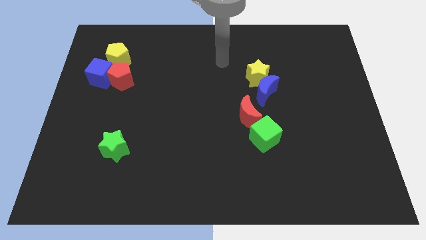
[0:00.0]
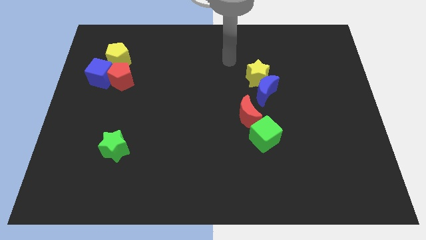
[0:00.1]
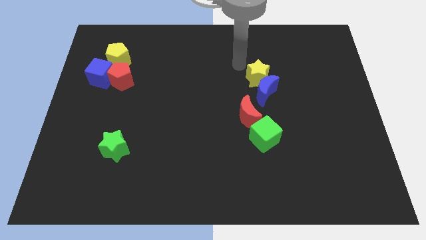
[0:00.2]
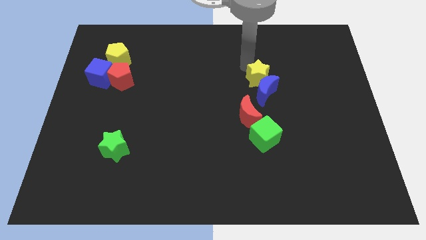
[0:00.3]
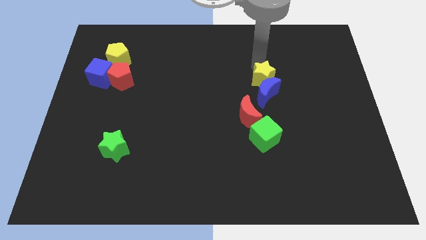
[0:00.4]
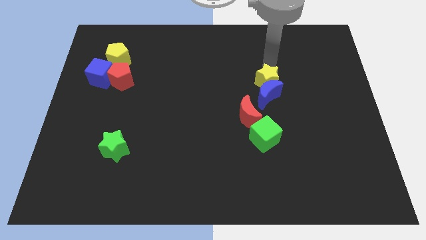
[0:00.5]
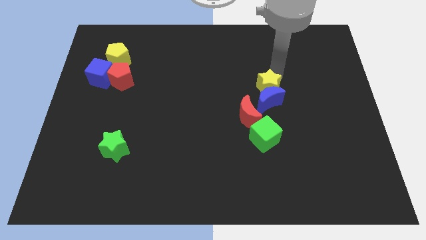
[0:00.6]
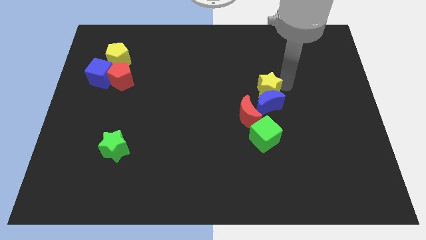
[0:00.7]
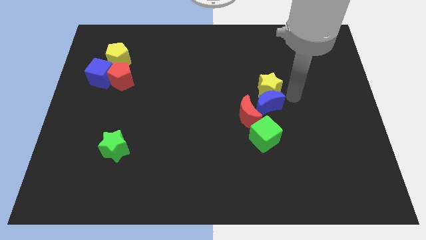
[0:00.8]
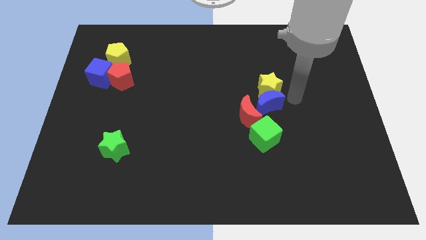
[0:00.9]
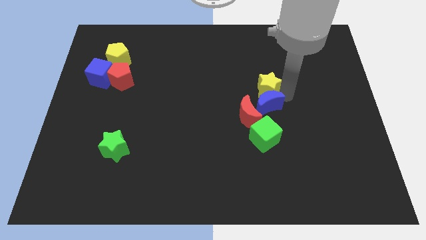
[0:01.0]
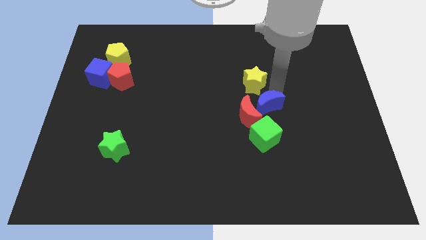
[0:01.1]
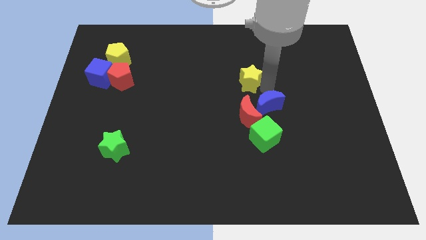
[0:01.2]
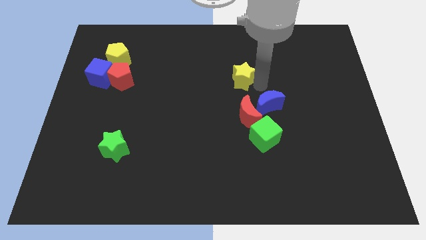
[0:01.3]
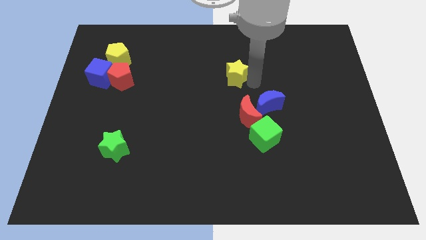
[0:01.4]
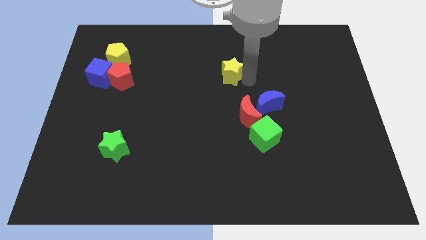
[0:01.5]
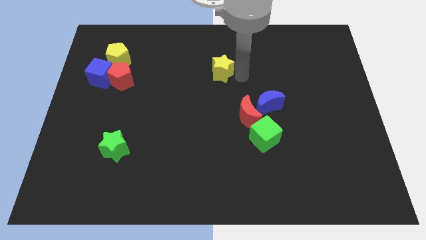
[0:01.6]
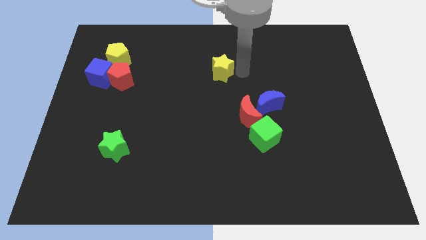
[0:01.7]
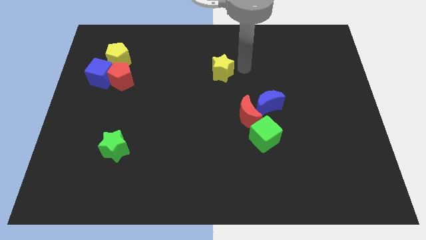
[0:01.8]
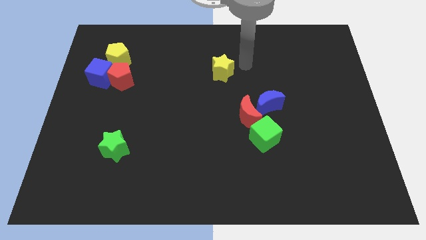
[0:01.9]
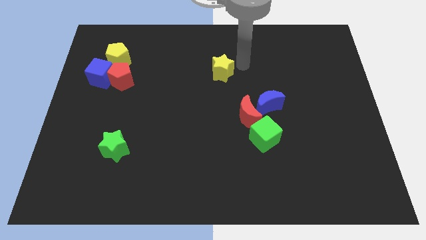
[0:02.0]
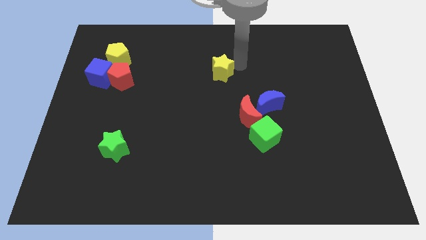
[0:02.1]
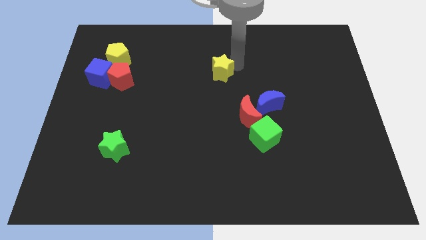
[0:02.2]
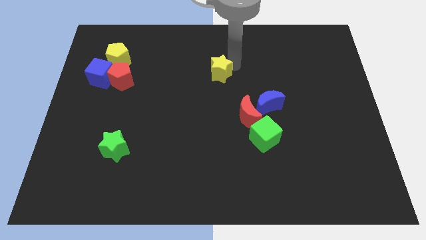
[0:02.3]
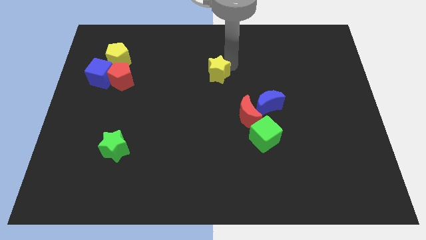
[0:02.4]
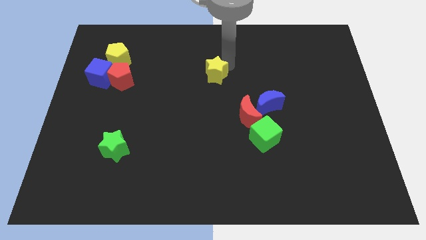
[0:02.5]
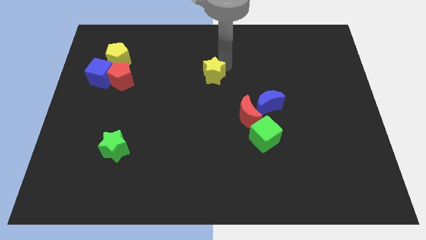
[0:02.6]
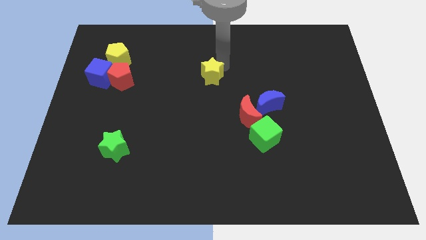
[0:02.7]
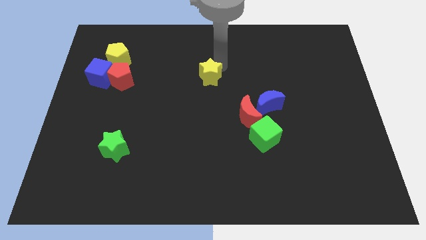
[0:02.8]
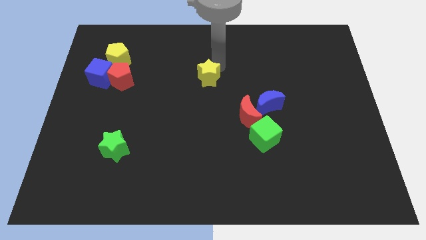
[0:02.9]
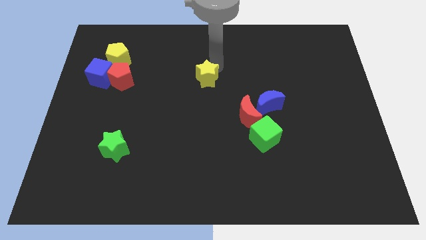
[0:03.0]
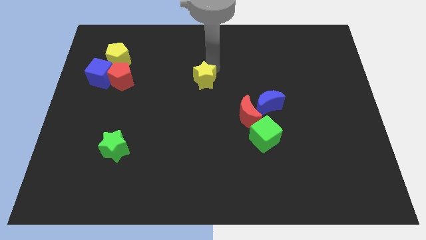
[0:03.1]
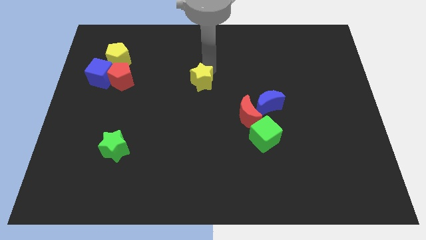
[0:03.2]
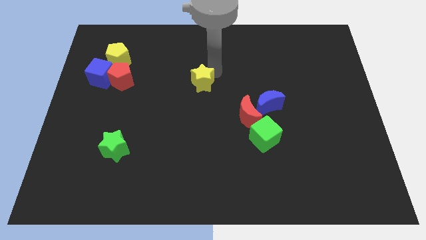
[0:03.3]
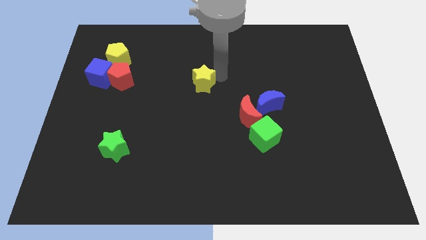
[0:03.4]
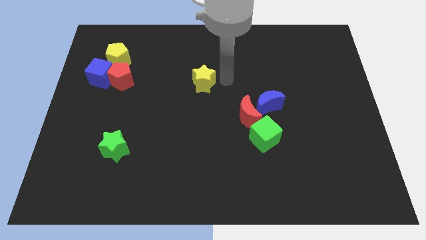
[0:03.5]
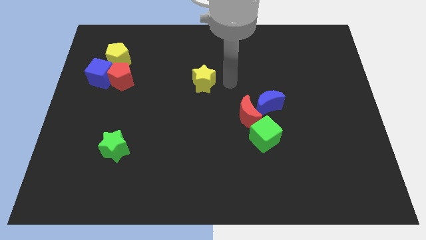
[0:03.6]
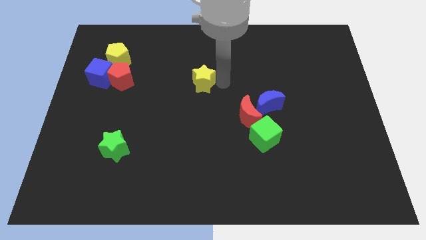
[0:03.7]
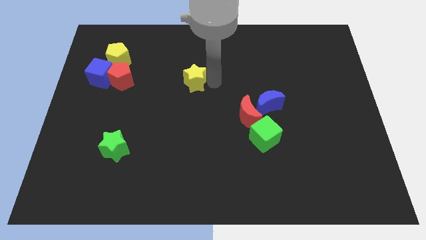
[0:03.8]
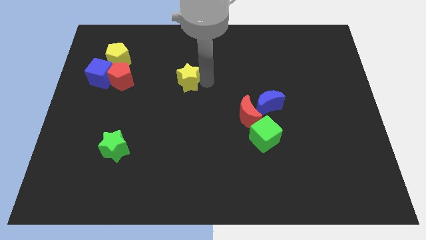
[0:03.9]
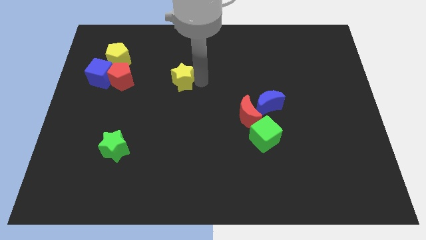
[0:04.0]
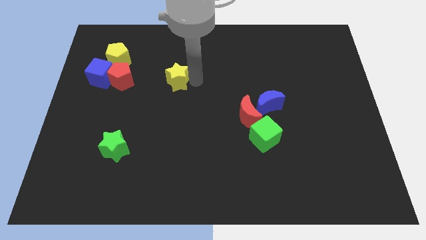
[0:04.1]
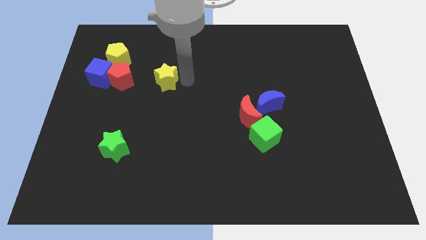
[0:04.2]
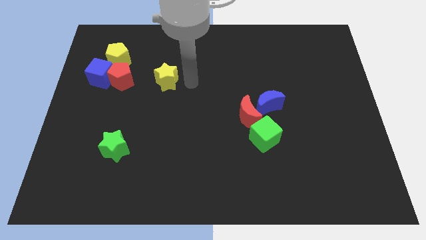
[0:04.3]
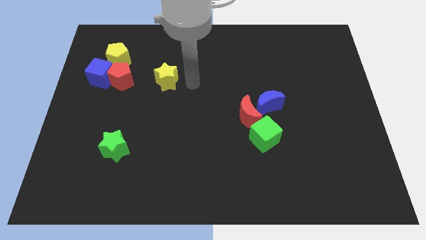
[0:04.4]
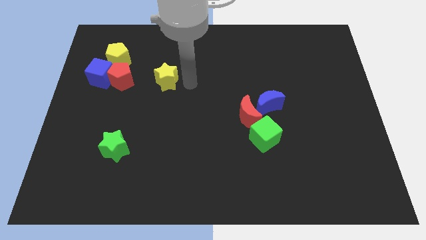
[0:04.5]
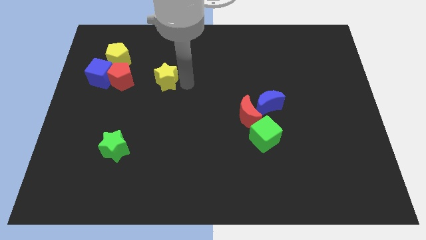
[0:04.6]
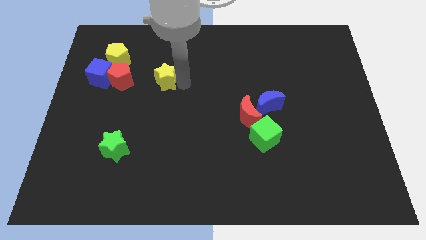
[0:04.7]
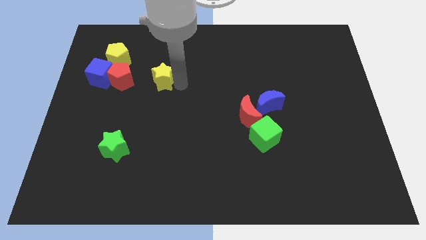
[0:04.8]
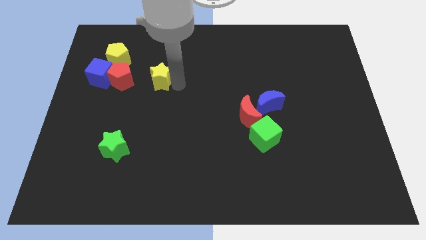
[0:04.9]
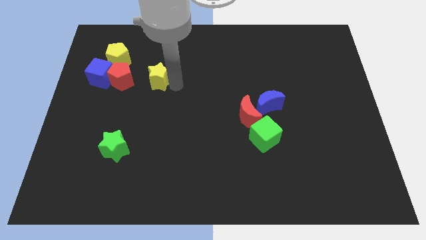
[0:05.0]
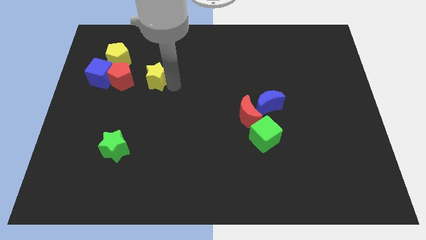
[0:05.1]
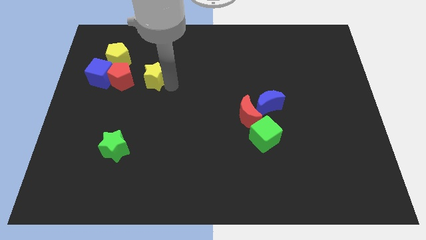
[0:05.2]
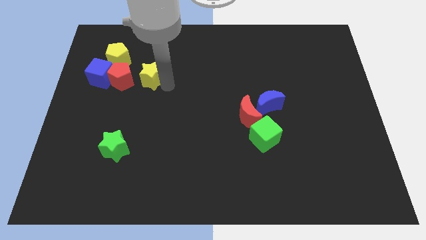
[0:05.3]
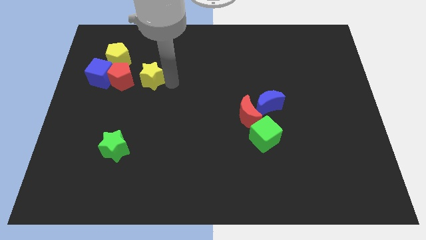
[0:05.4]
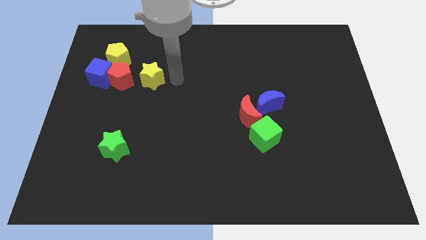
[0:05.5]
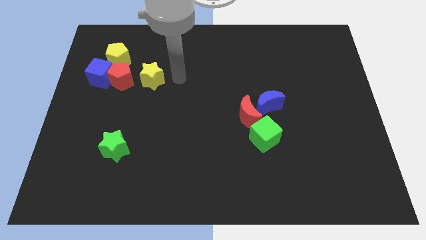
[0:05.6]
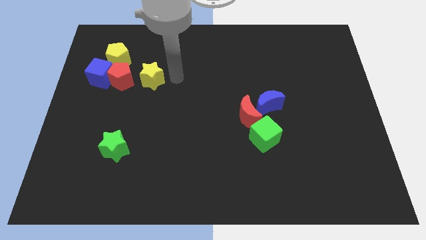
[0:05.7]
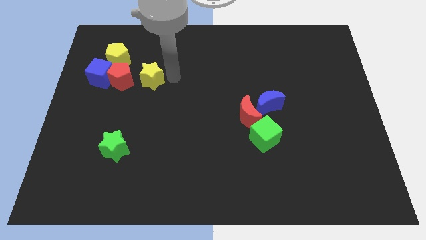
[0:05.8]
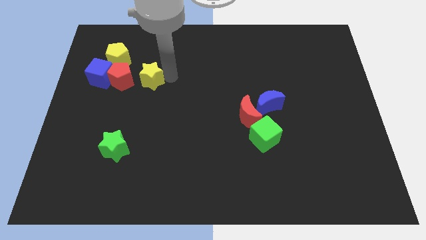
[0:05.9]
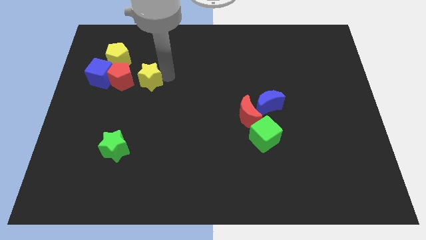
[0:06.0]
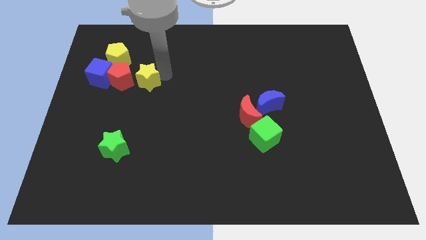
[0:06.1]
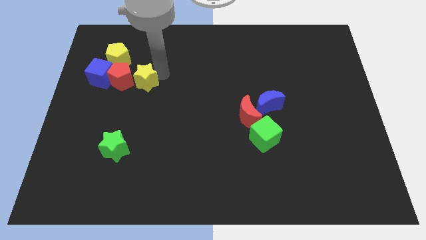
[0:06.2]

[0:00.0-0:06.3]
move the yellow star to the red pentagon

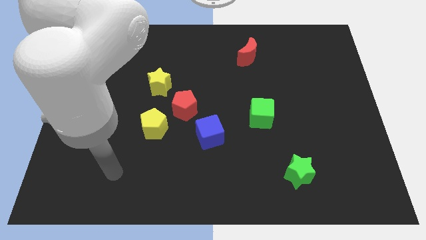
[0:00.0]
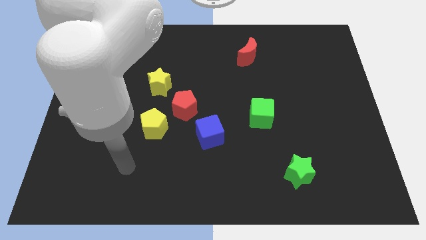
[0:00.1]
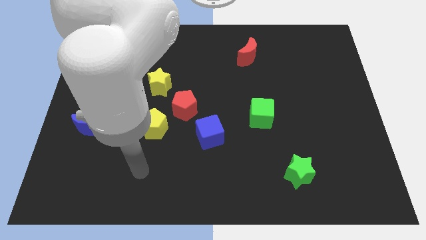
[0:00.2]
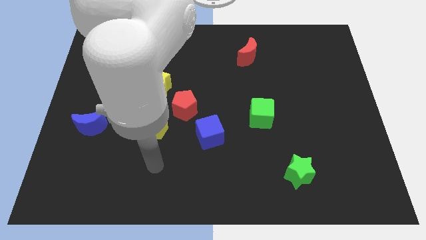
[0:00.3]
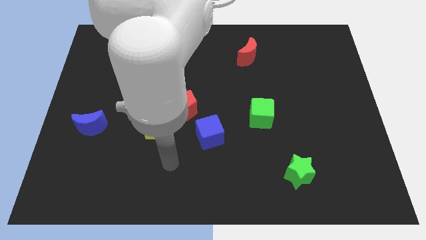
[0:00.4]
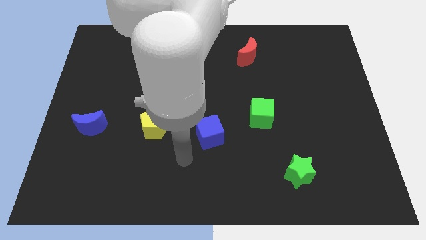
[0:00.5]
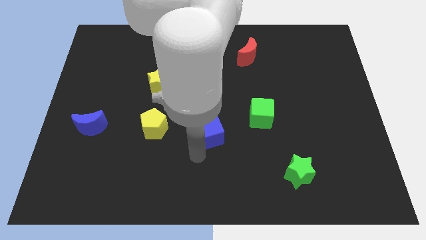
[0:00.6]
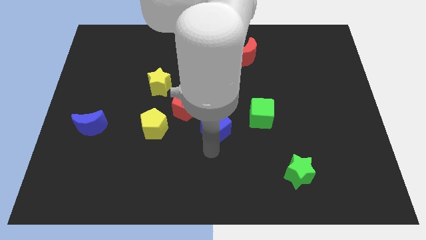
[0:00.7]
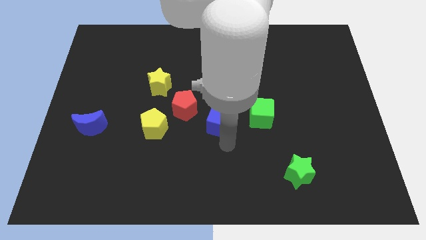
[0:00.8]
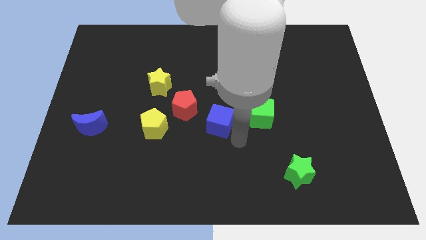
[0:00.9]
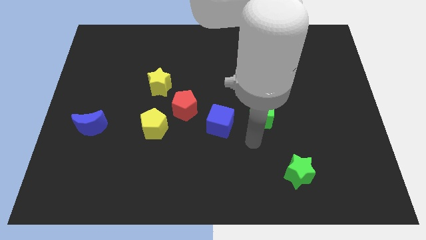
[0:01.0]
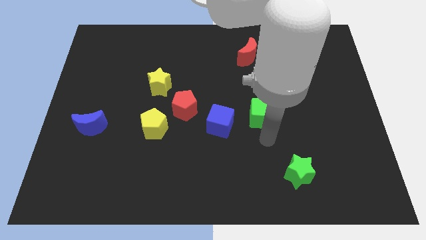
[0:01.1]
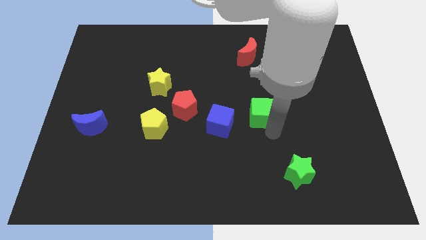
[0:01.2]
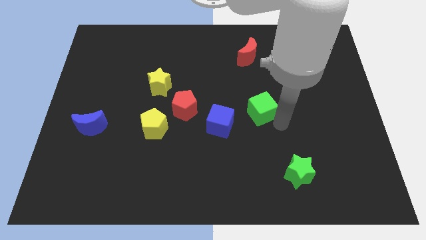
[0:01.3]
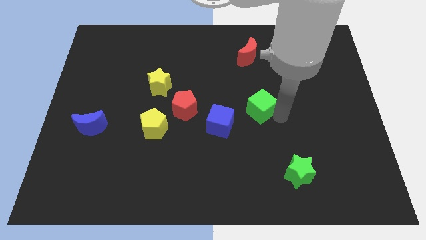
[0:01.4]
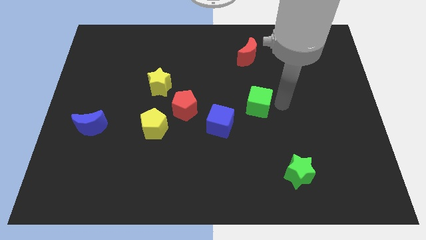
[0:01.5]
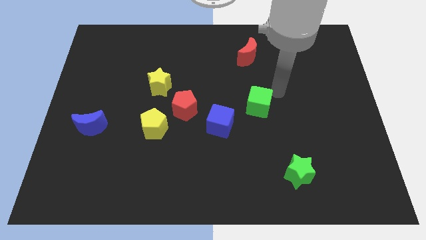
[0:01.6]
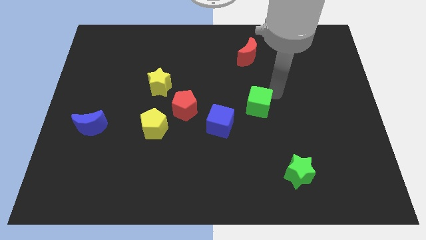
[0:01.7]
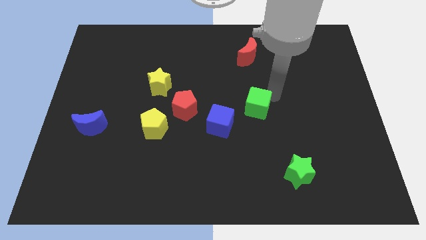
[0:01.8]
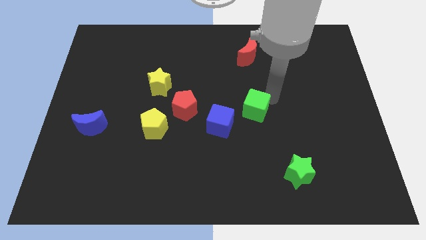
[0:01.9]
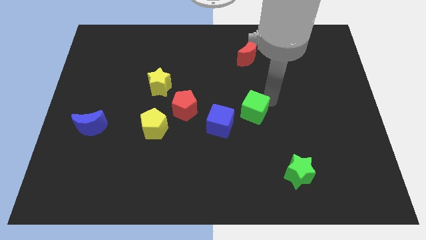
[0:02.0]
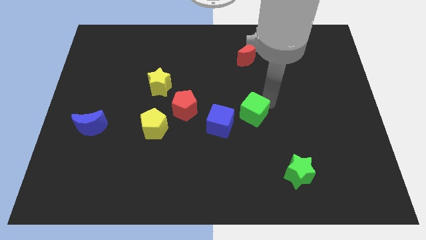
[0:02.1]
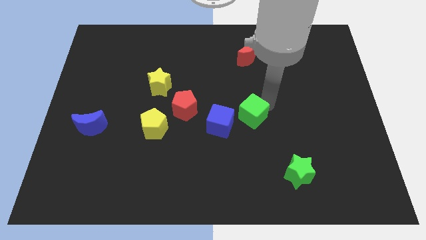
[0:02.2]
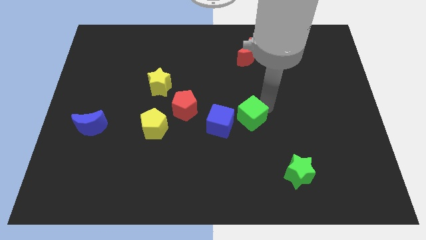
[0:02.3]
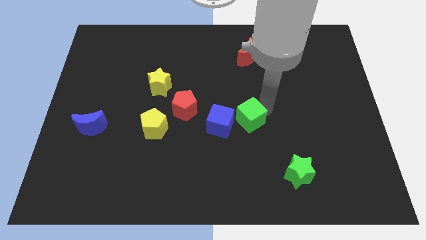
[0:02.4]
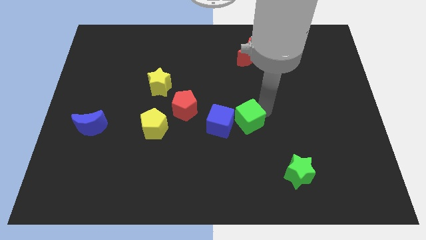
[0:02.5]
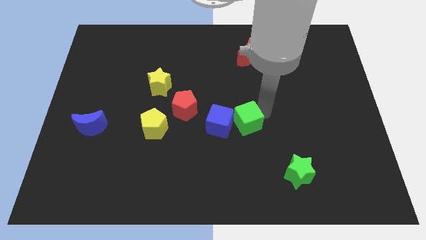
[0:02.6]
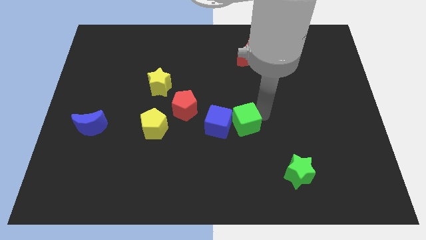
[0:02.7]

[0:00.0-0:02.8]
slide the green cube close to the blue cube
